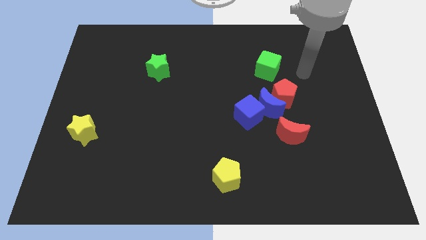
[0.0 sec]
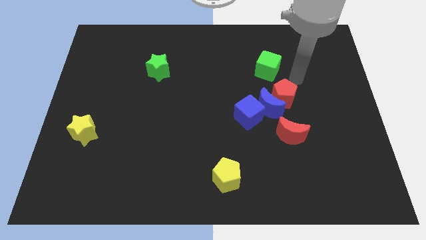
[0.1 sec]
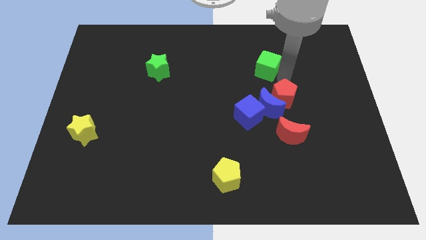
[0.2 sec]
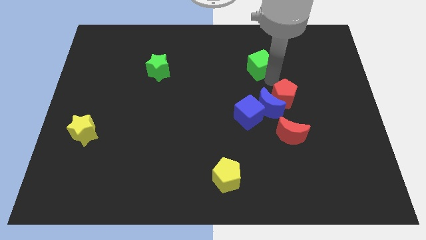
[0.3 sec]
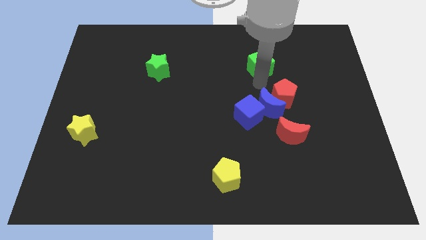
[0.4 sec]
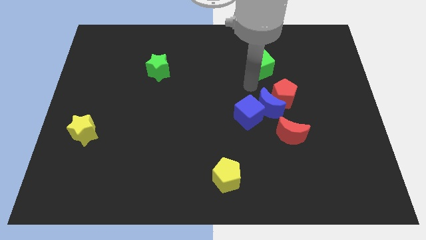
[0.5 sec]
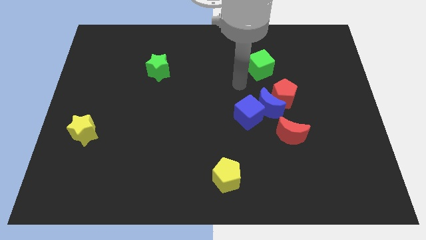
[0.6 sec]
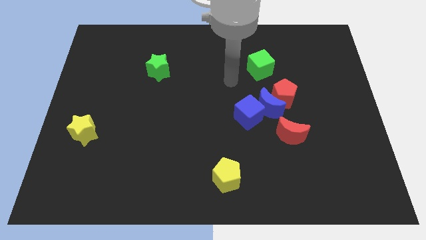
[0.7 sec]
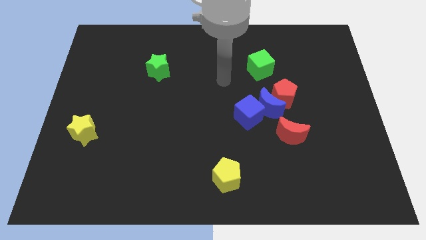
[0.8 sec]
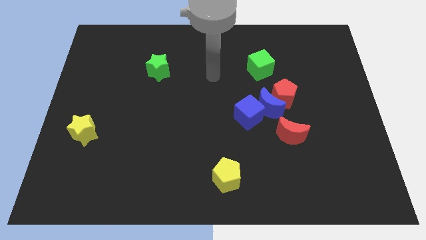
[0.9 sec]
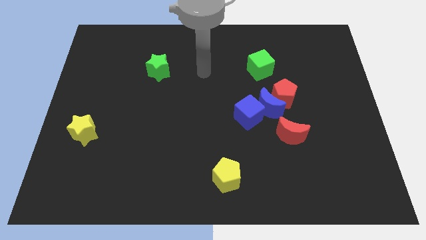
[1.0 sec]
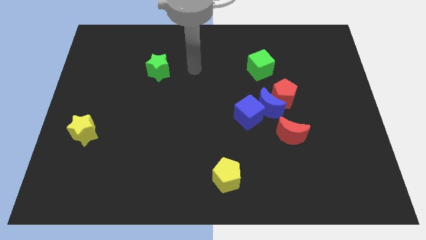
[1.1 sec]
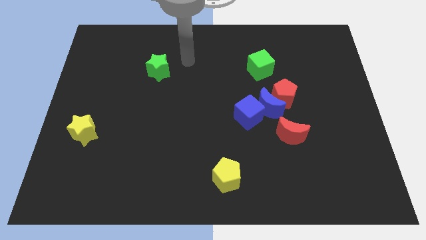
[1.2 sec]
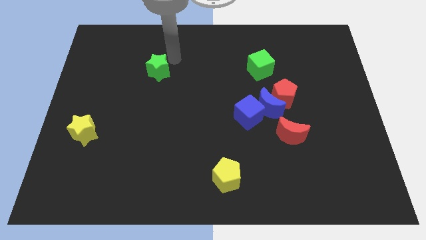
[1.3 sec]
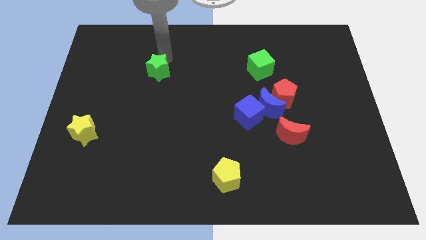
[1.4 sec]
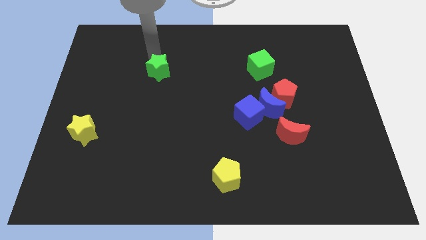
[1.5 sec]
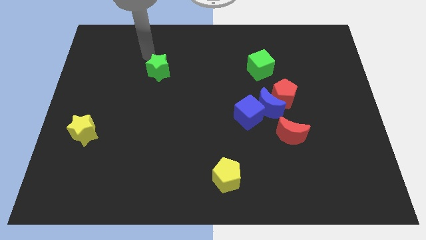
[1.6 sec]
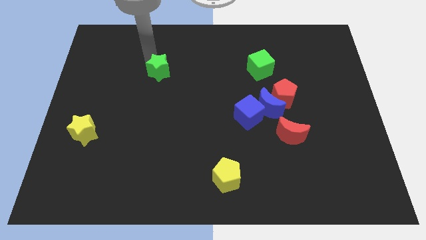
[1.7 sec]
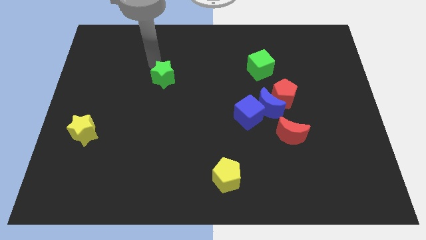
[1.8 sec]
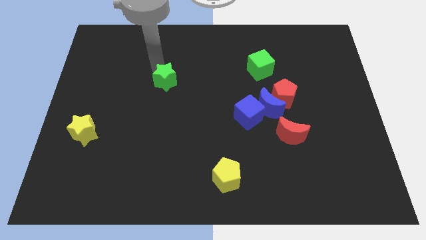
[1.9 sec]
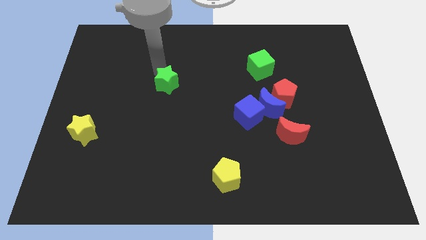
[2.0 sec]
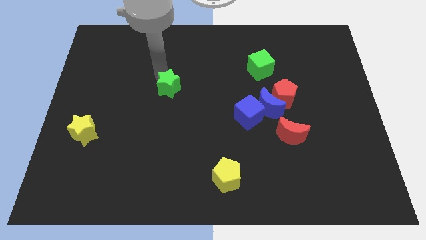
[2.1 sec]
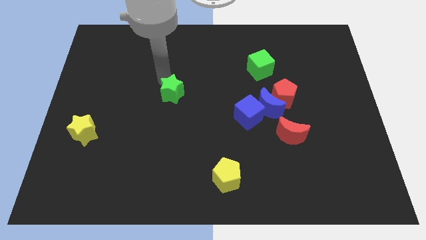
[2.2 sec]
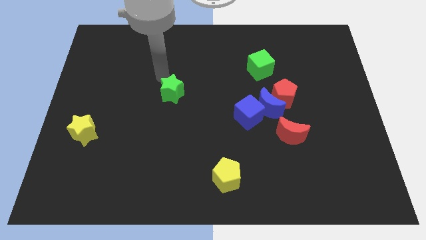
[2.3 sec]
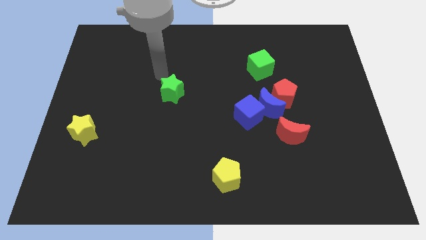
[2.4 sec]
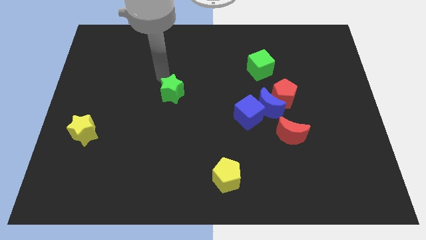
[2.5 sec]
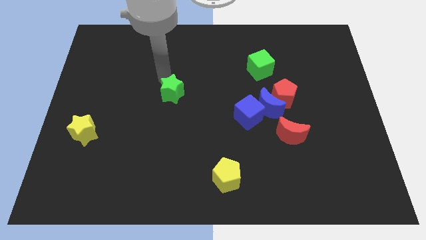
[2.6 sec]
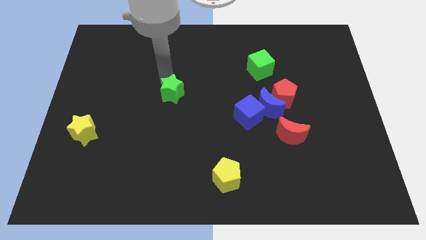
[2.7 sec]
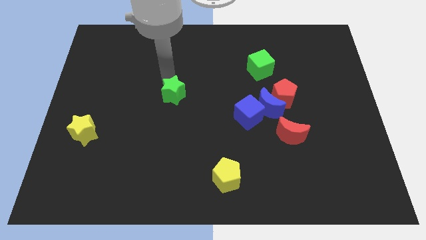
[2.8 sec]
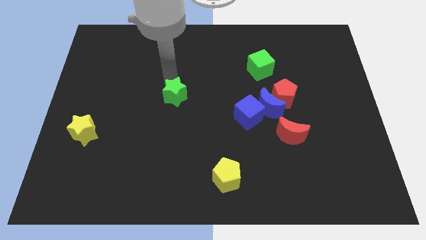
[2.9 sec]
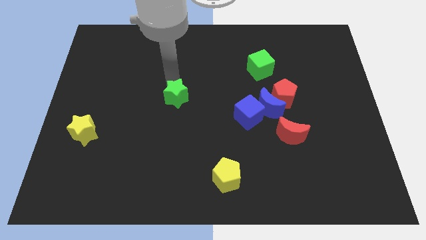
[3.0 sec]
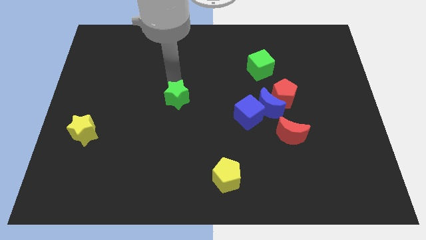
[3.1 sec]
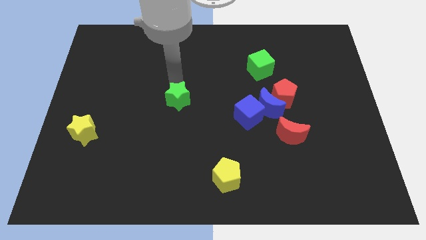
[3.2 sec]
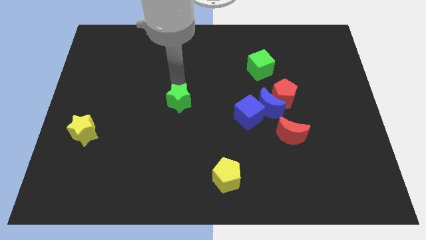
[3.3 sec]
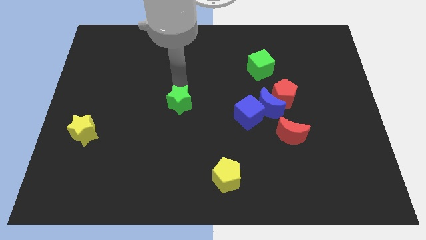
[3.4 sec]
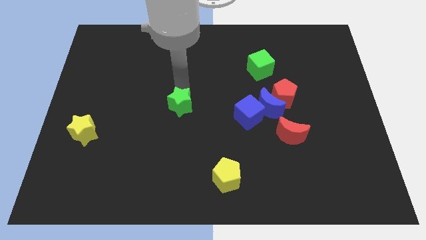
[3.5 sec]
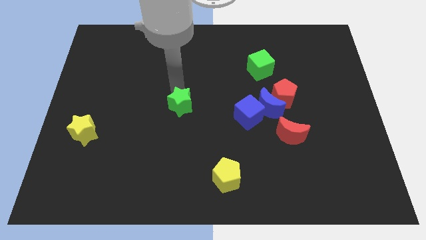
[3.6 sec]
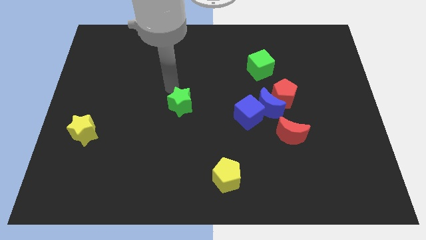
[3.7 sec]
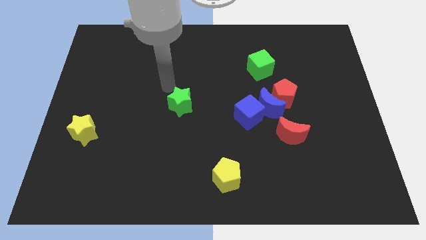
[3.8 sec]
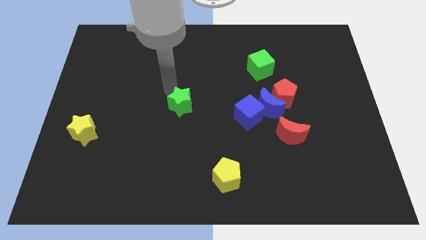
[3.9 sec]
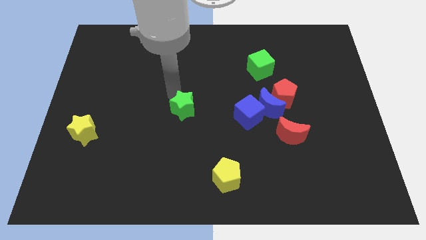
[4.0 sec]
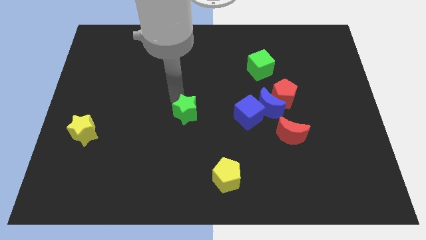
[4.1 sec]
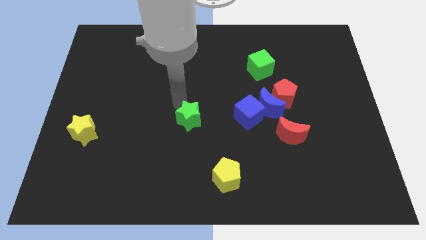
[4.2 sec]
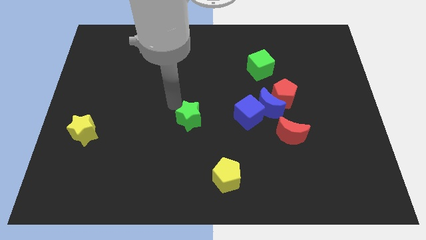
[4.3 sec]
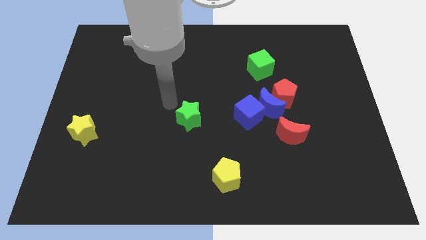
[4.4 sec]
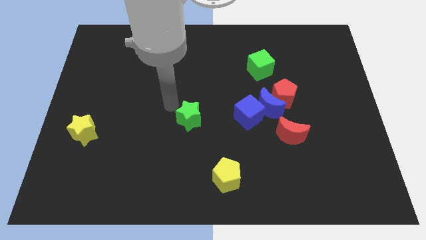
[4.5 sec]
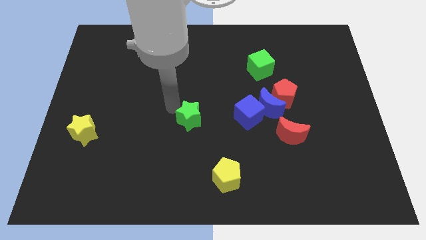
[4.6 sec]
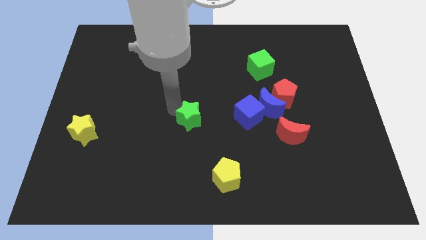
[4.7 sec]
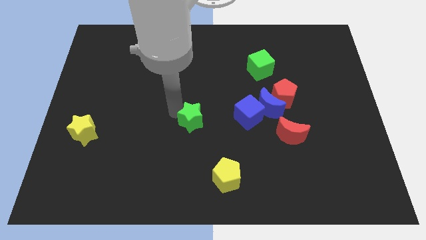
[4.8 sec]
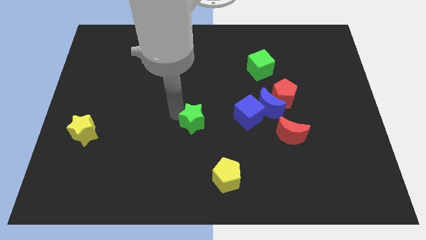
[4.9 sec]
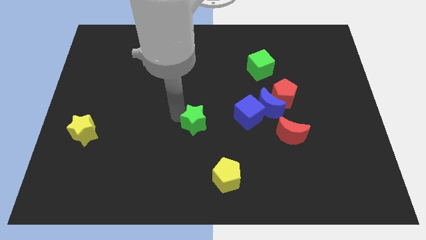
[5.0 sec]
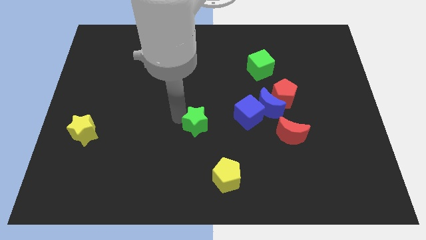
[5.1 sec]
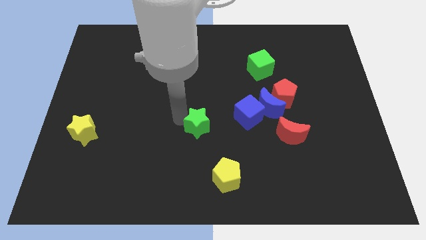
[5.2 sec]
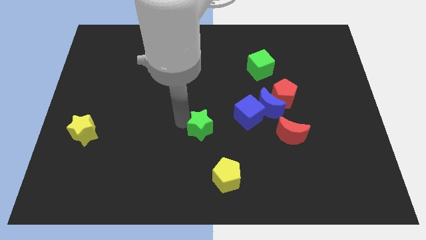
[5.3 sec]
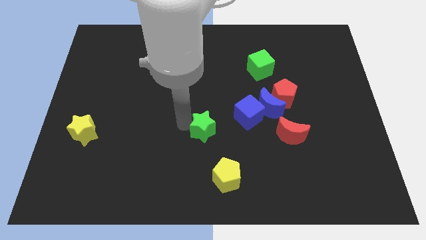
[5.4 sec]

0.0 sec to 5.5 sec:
push the green star downwards and right diagonally

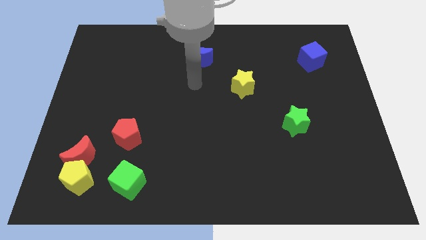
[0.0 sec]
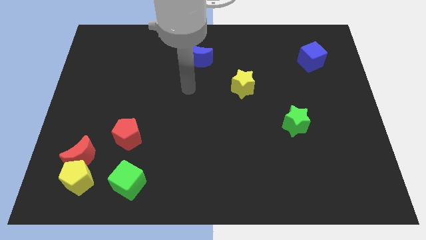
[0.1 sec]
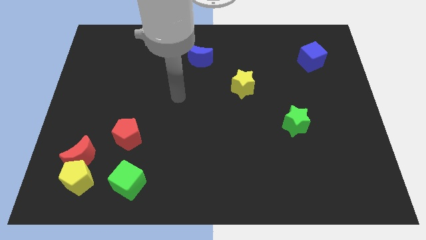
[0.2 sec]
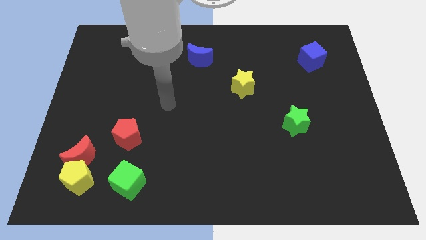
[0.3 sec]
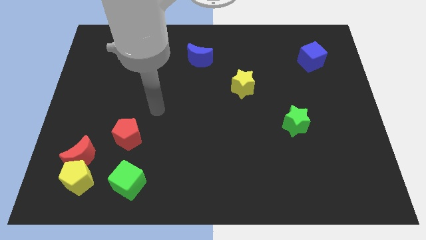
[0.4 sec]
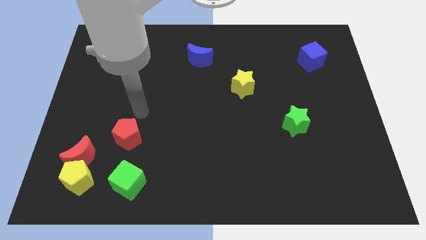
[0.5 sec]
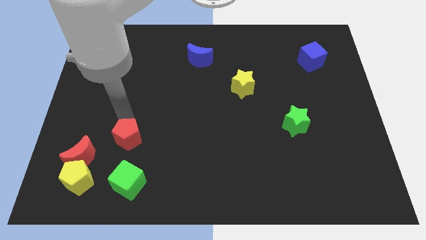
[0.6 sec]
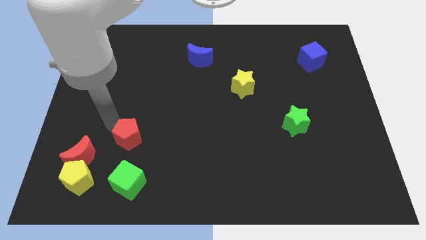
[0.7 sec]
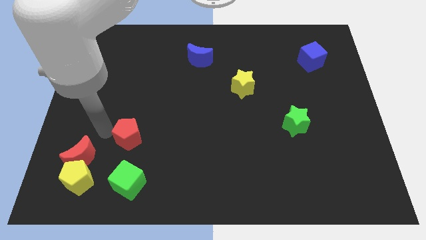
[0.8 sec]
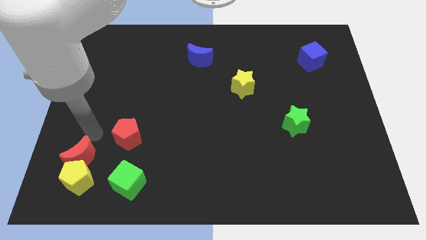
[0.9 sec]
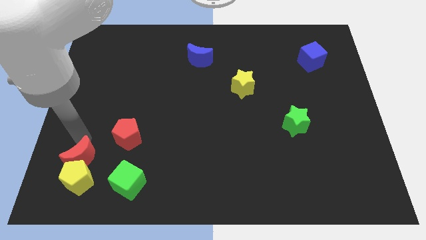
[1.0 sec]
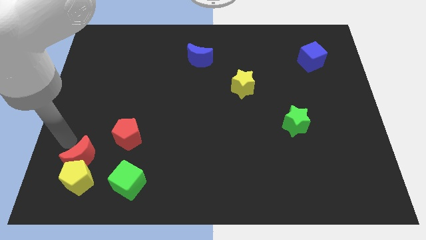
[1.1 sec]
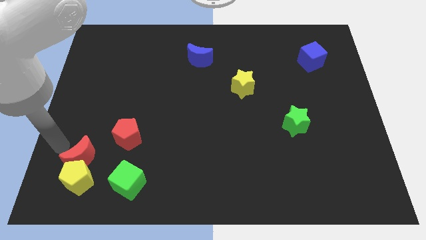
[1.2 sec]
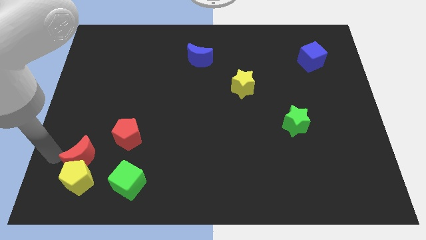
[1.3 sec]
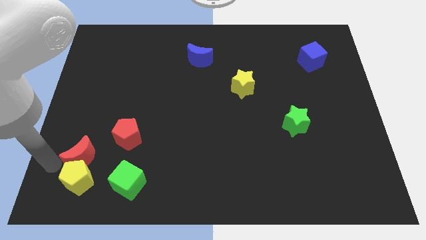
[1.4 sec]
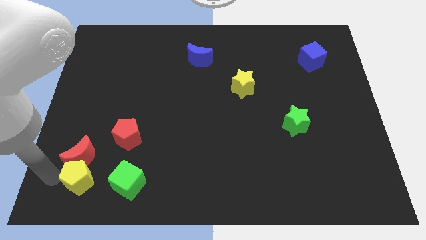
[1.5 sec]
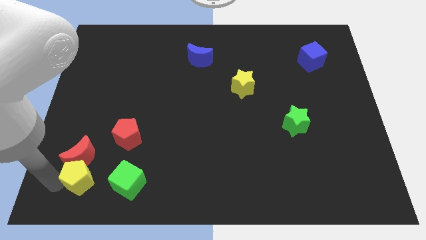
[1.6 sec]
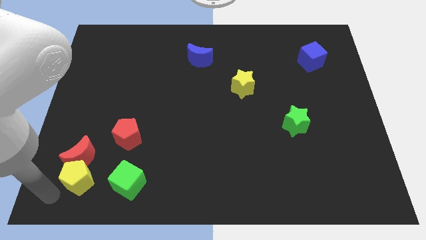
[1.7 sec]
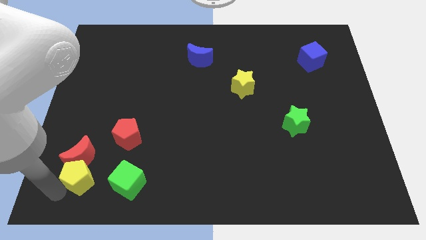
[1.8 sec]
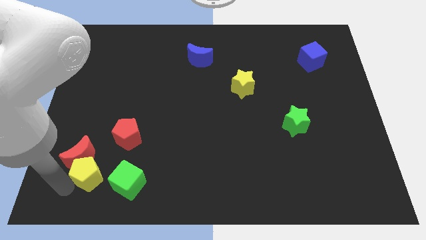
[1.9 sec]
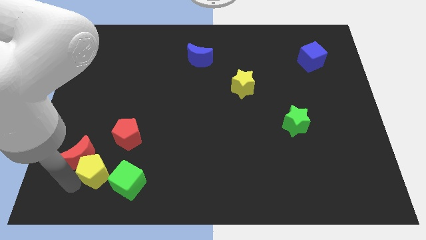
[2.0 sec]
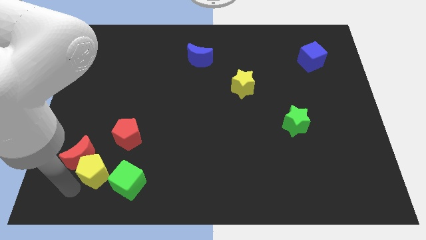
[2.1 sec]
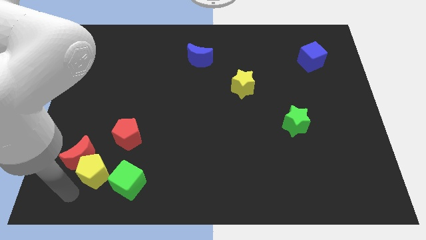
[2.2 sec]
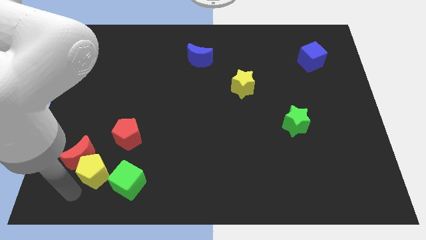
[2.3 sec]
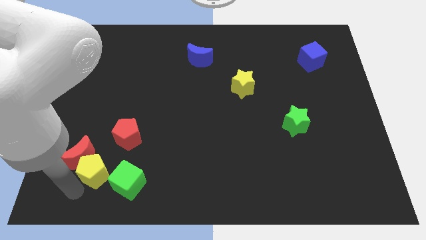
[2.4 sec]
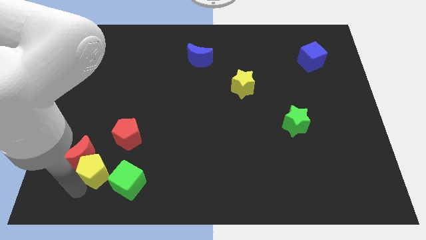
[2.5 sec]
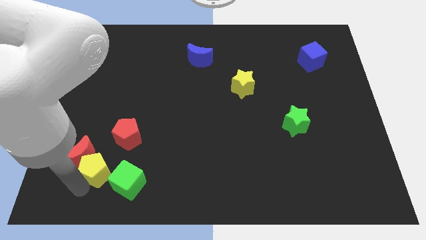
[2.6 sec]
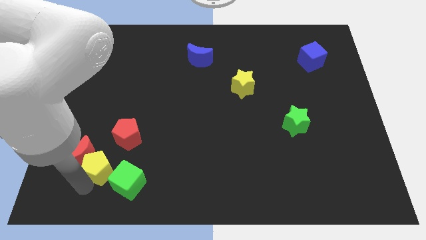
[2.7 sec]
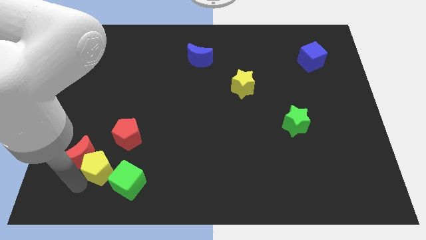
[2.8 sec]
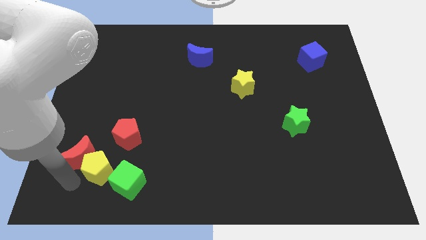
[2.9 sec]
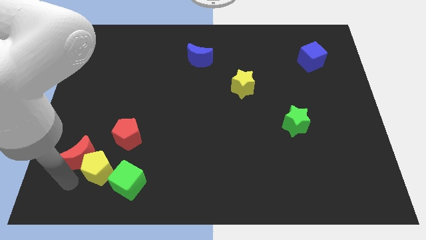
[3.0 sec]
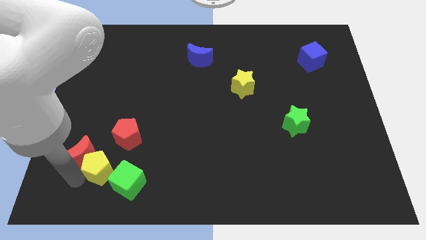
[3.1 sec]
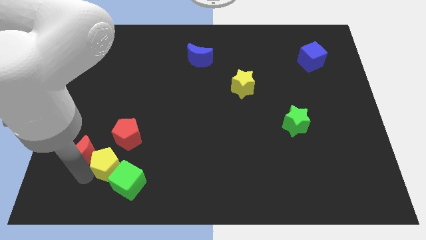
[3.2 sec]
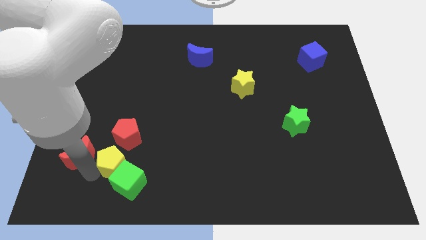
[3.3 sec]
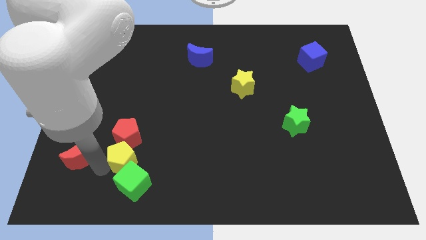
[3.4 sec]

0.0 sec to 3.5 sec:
slide the yellow pentagon right a little bit
